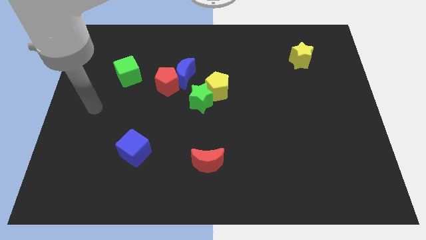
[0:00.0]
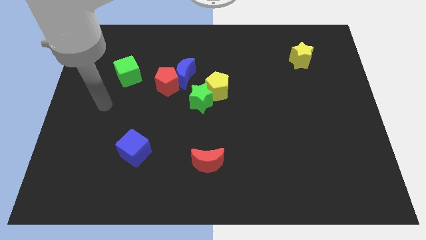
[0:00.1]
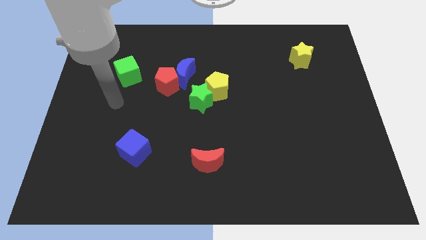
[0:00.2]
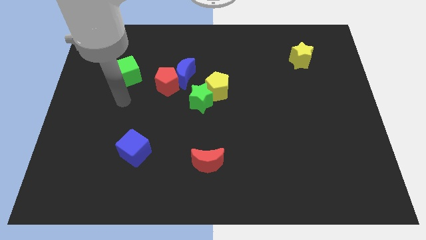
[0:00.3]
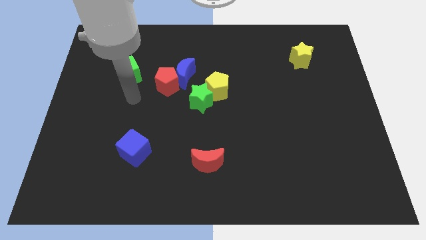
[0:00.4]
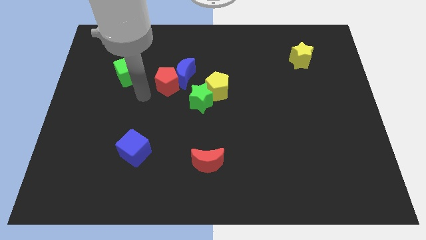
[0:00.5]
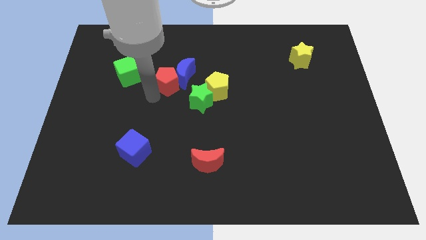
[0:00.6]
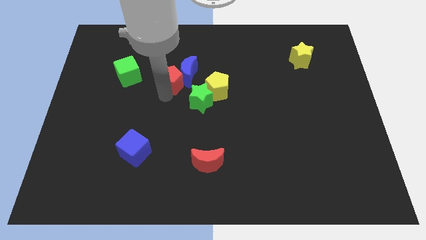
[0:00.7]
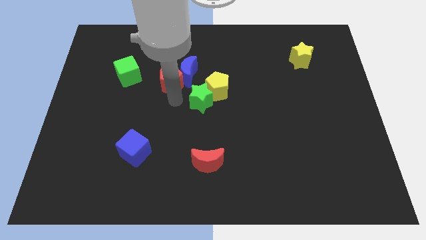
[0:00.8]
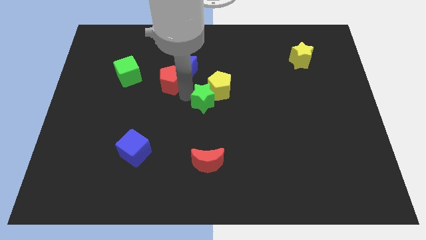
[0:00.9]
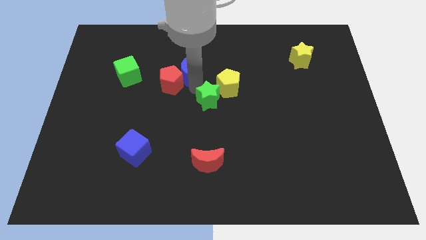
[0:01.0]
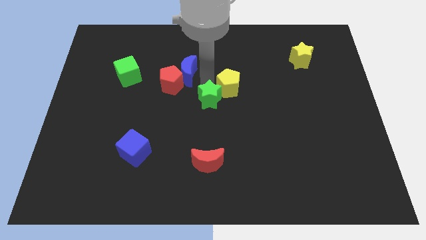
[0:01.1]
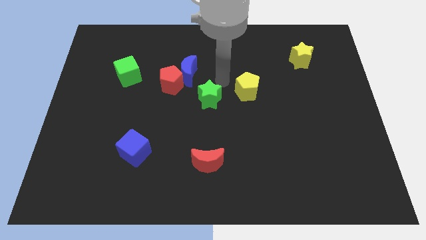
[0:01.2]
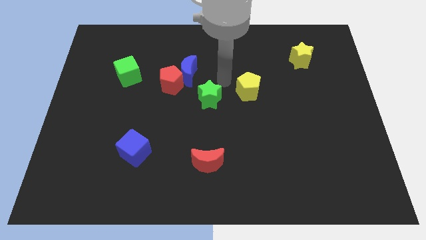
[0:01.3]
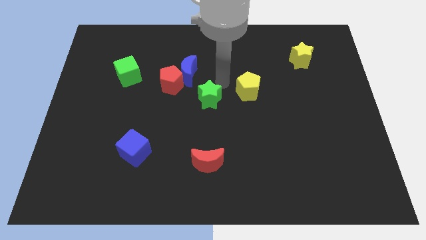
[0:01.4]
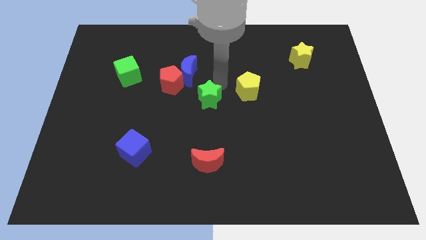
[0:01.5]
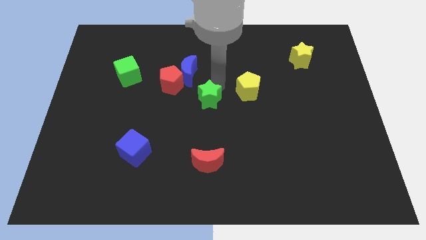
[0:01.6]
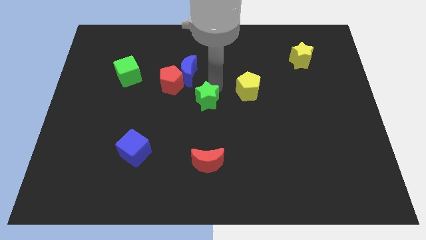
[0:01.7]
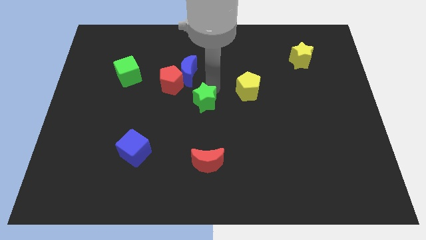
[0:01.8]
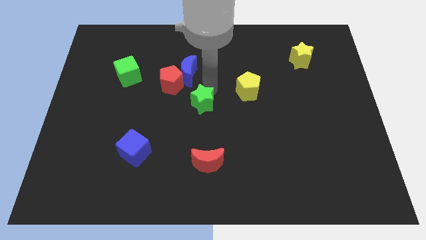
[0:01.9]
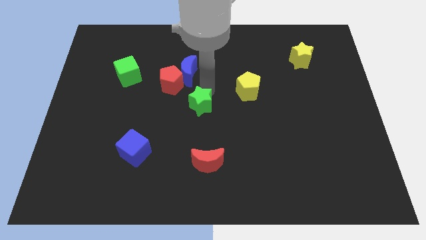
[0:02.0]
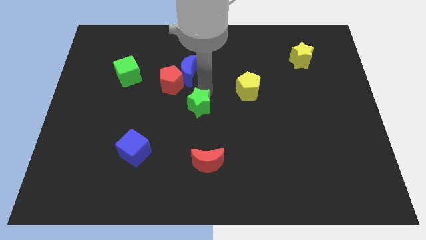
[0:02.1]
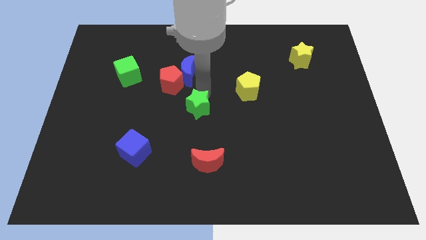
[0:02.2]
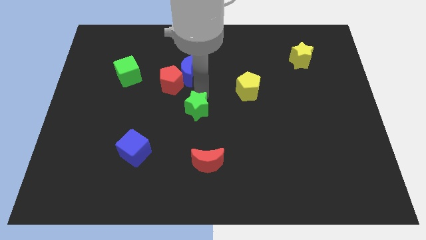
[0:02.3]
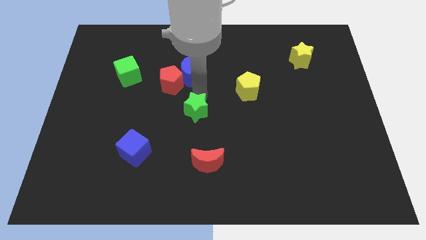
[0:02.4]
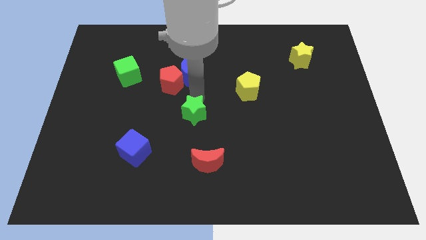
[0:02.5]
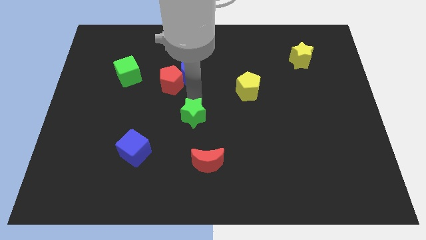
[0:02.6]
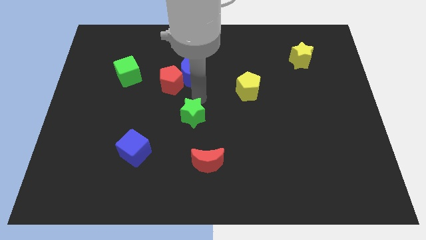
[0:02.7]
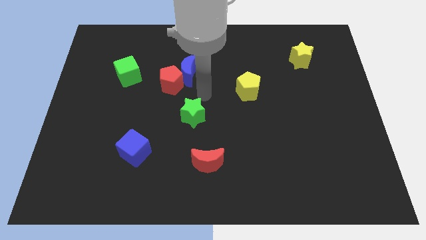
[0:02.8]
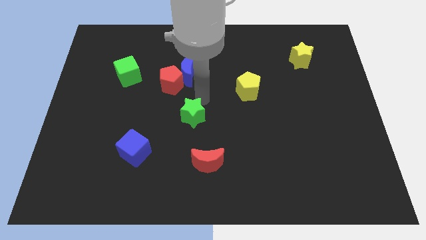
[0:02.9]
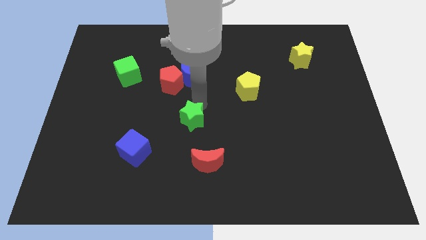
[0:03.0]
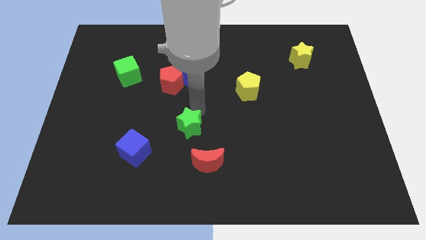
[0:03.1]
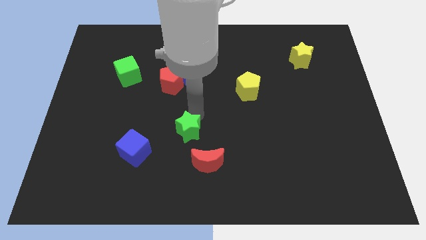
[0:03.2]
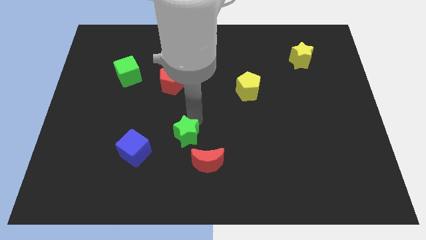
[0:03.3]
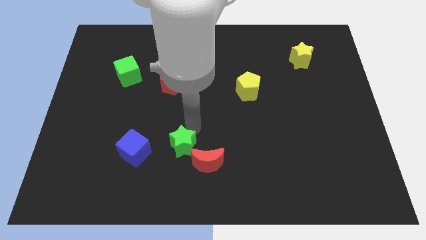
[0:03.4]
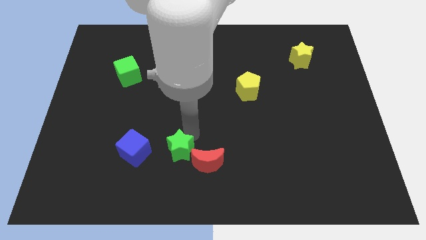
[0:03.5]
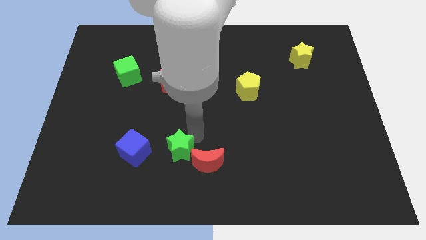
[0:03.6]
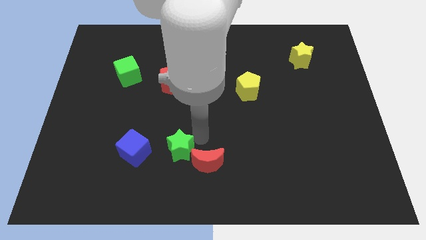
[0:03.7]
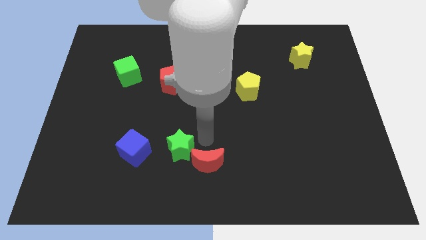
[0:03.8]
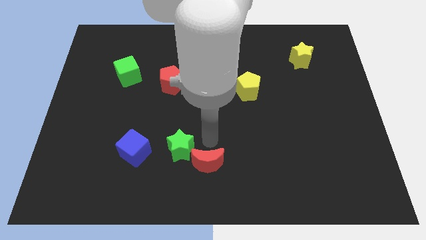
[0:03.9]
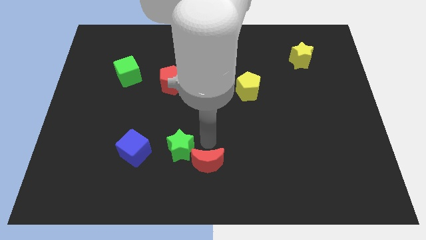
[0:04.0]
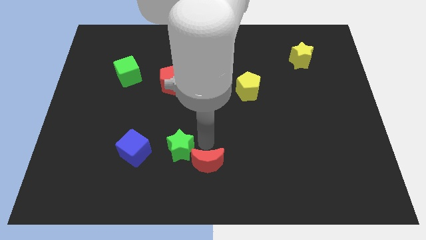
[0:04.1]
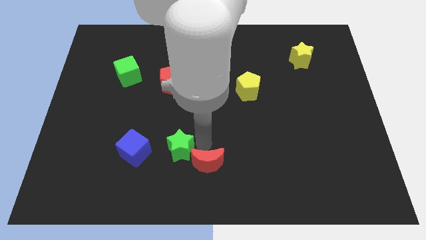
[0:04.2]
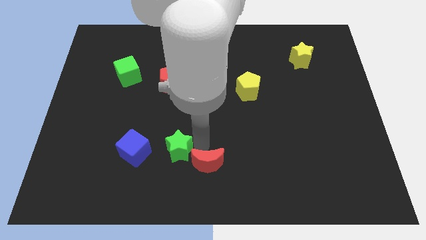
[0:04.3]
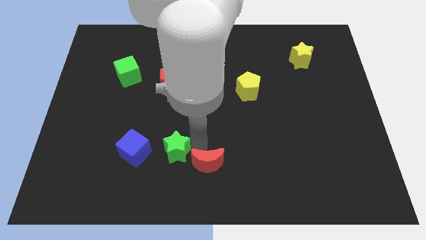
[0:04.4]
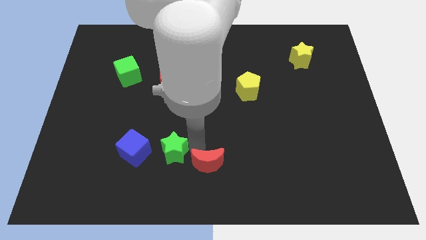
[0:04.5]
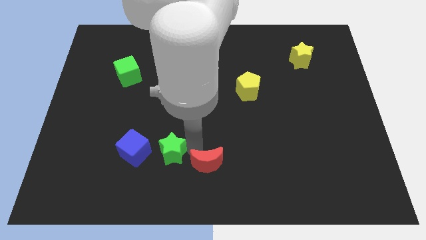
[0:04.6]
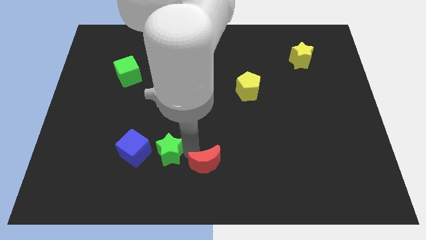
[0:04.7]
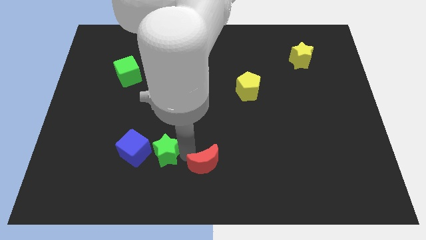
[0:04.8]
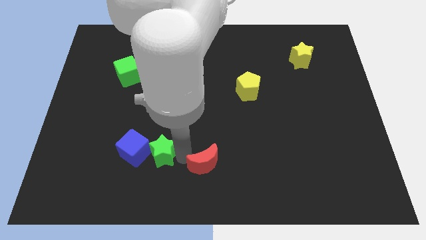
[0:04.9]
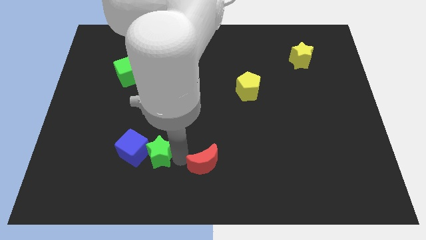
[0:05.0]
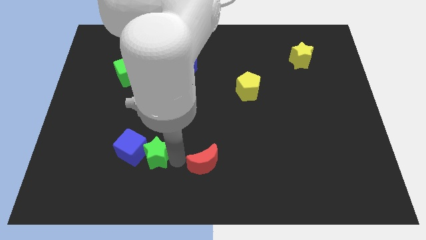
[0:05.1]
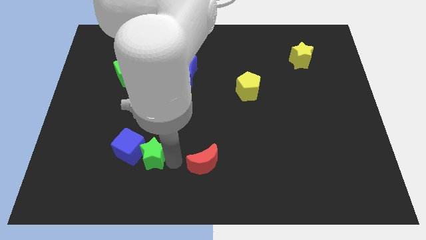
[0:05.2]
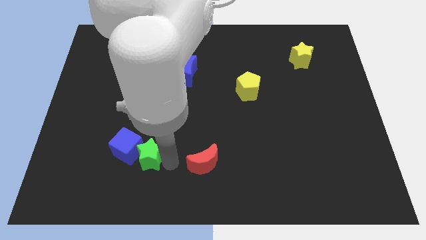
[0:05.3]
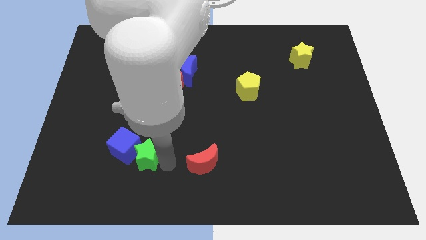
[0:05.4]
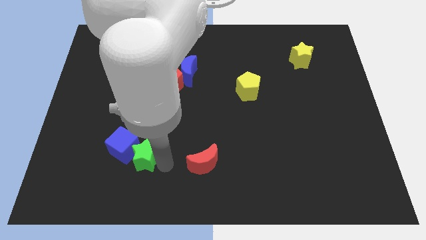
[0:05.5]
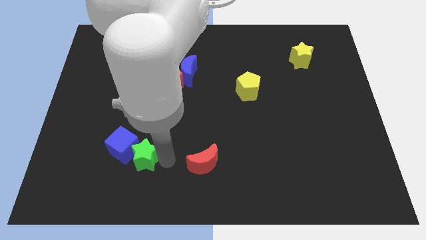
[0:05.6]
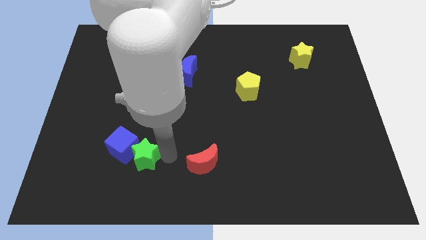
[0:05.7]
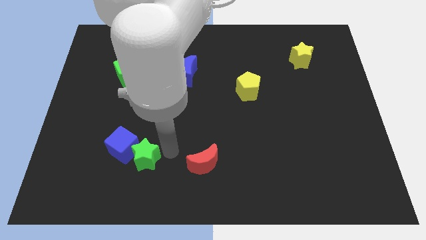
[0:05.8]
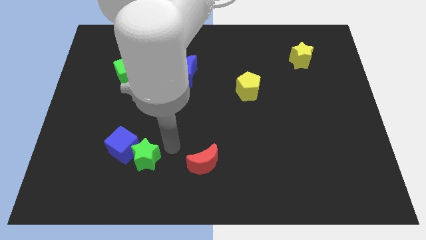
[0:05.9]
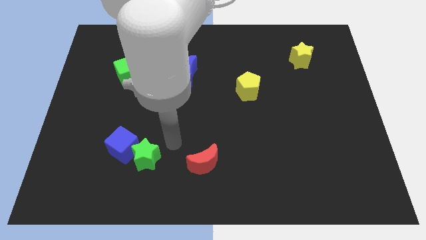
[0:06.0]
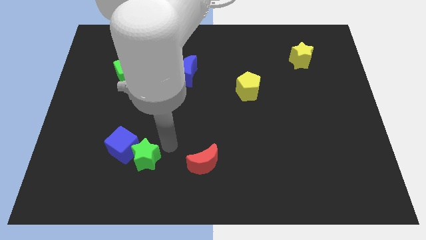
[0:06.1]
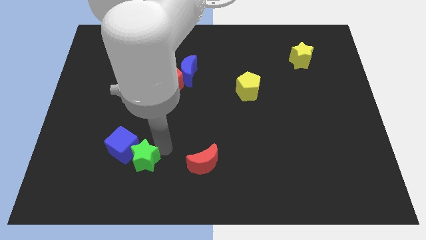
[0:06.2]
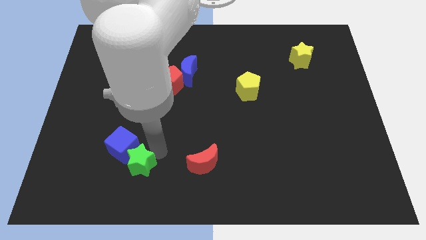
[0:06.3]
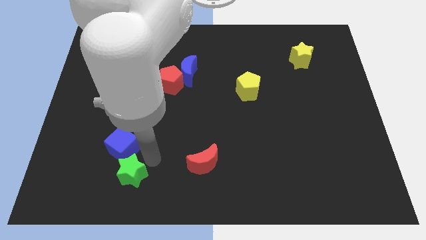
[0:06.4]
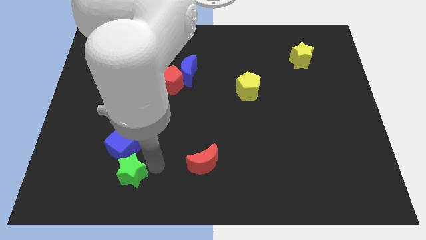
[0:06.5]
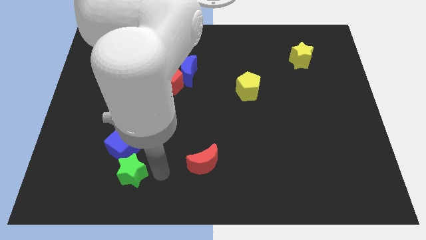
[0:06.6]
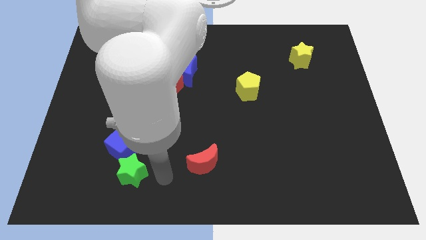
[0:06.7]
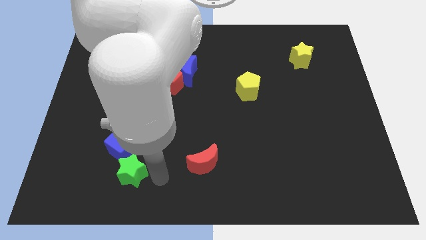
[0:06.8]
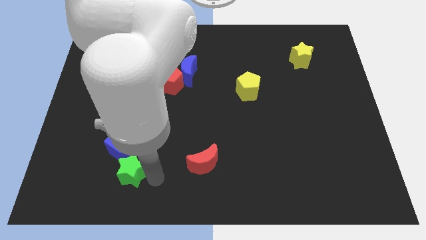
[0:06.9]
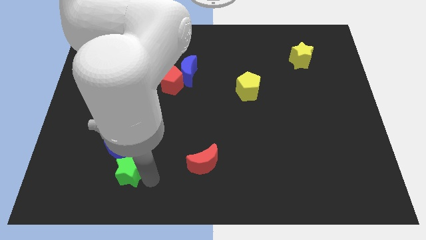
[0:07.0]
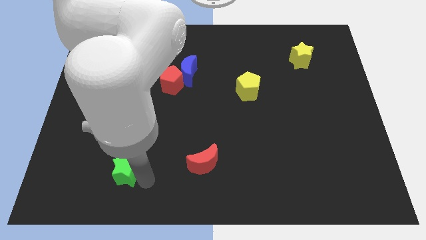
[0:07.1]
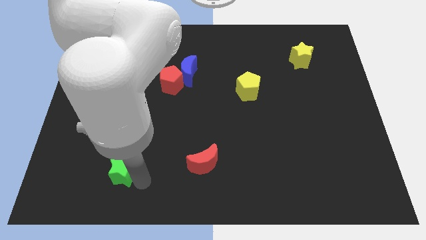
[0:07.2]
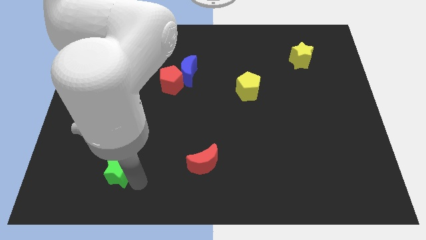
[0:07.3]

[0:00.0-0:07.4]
move the green star to the bottom left side of the blue cube
